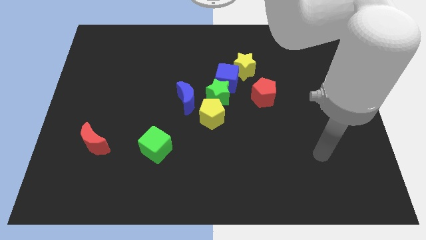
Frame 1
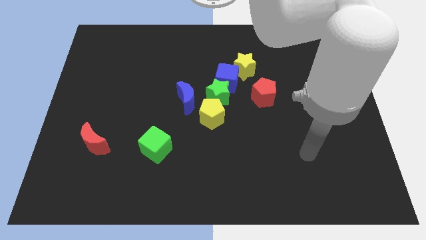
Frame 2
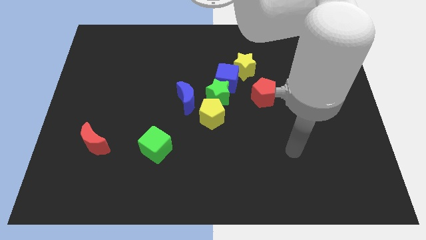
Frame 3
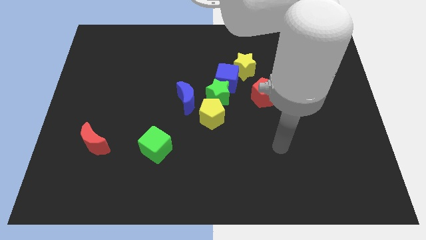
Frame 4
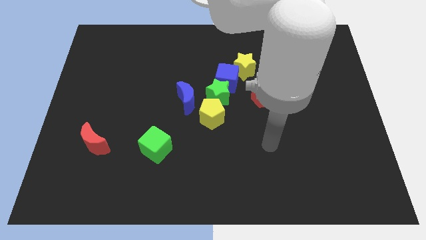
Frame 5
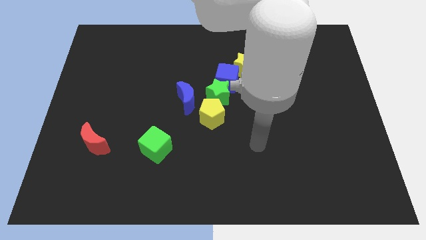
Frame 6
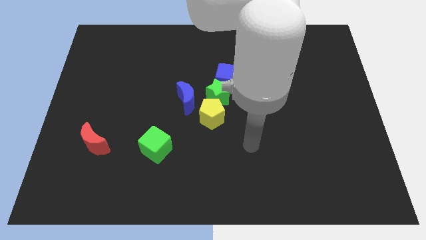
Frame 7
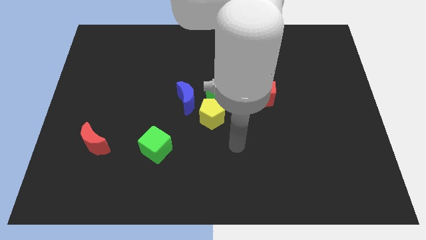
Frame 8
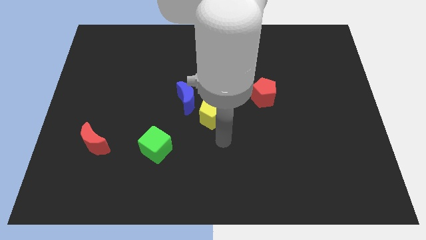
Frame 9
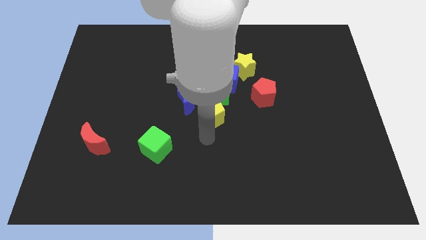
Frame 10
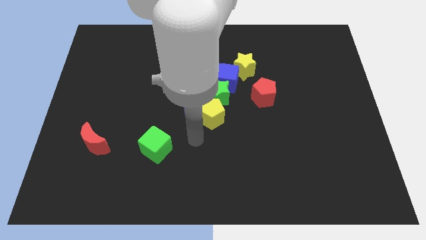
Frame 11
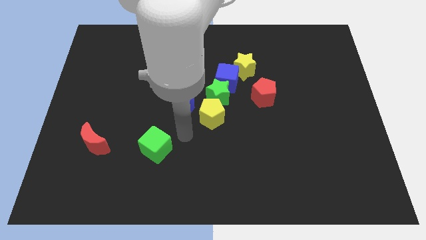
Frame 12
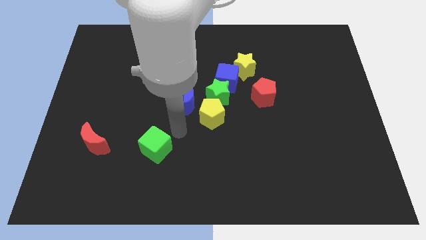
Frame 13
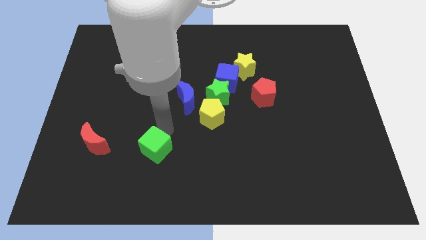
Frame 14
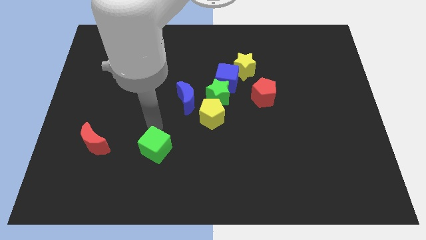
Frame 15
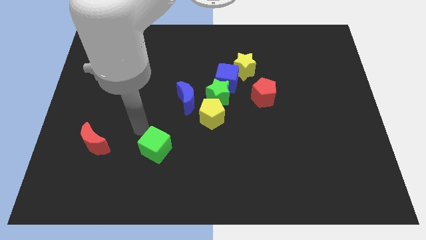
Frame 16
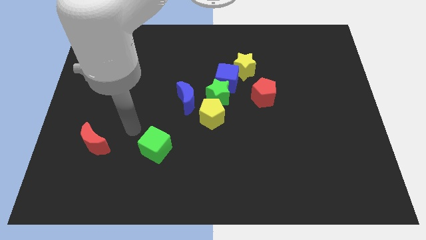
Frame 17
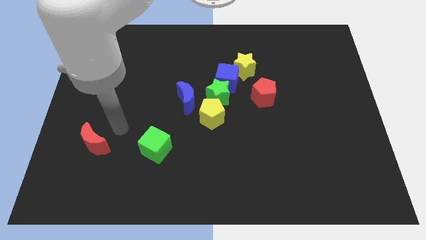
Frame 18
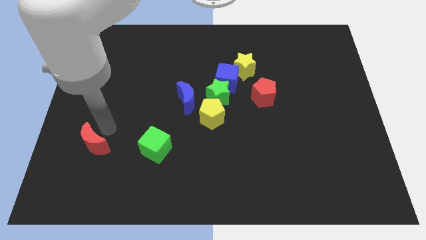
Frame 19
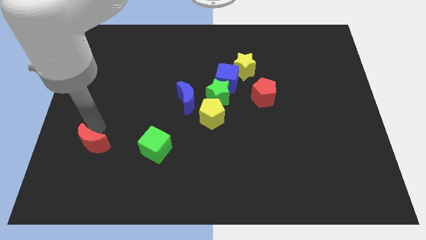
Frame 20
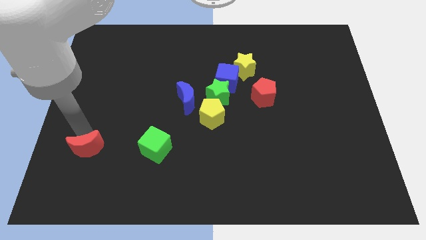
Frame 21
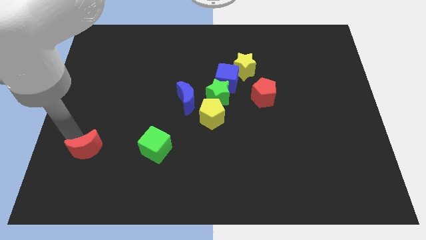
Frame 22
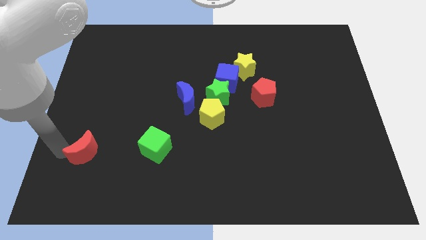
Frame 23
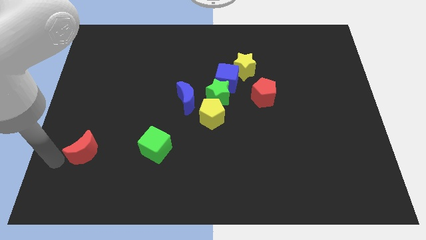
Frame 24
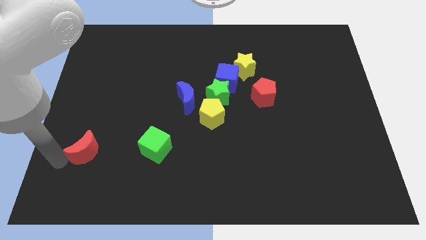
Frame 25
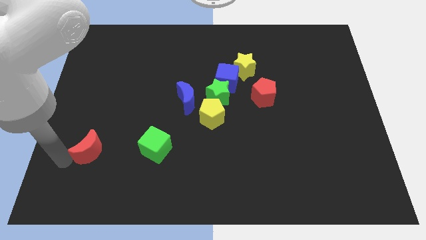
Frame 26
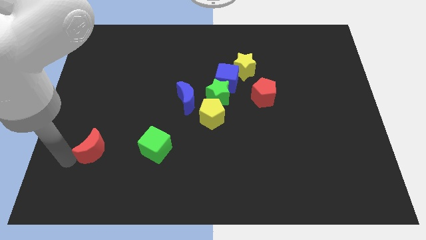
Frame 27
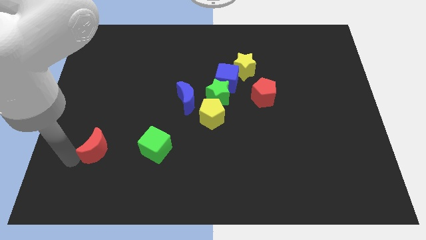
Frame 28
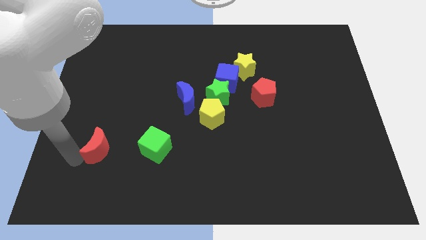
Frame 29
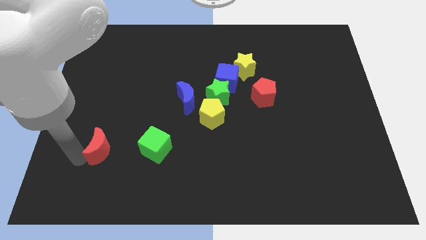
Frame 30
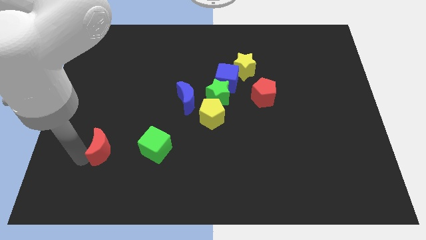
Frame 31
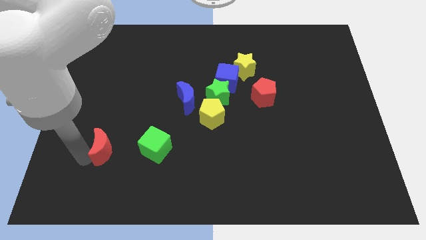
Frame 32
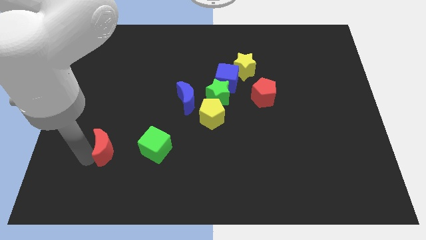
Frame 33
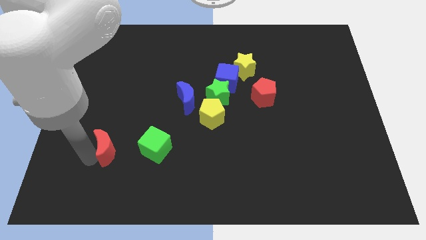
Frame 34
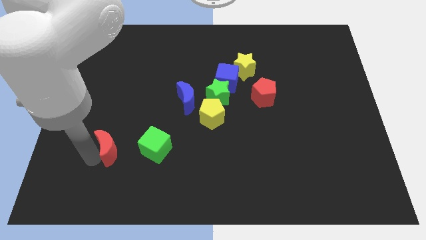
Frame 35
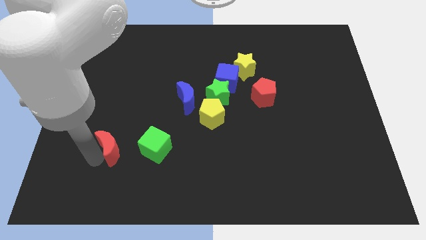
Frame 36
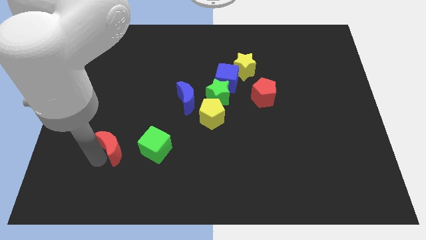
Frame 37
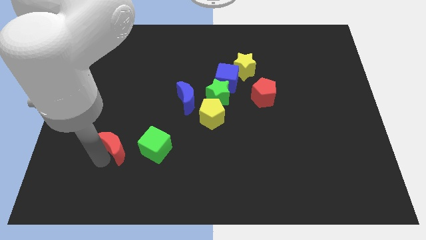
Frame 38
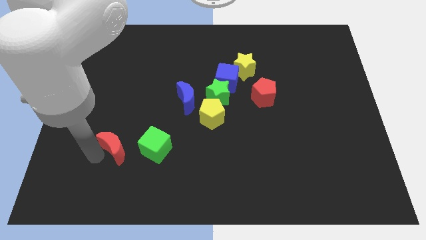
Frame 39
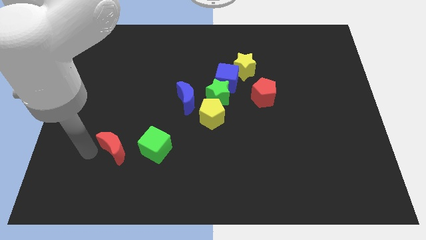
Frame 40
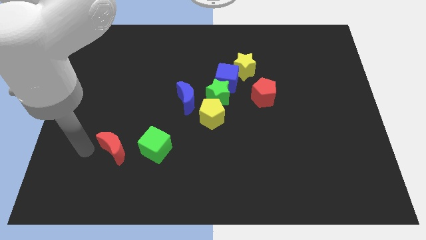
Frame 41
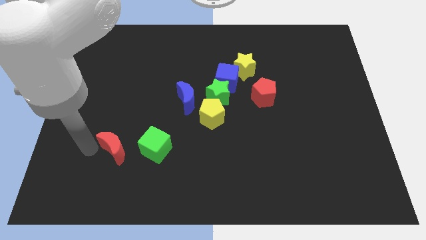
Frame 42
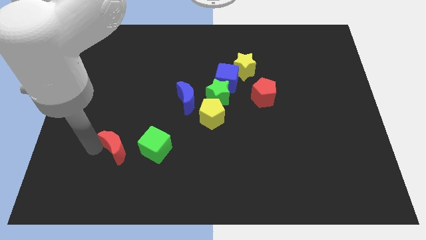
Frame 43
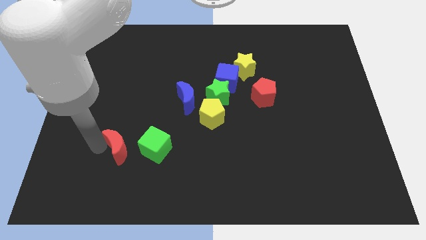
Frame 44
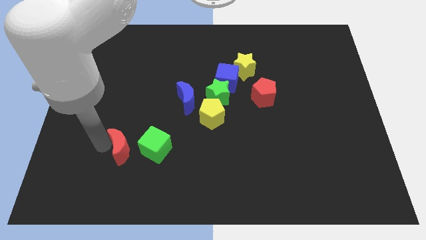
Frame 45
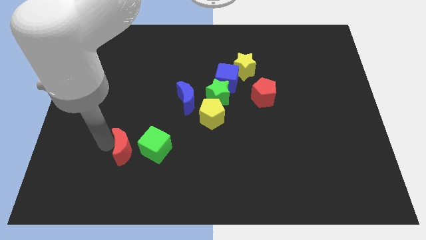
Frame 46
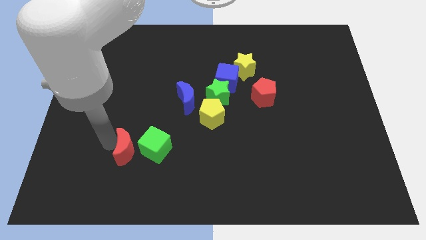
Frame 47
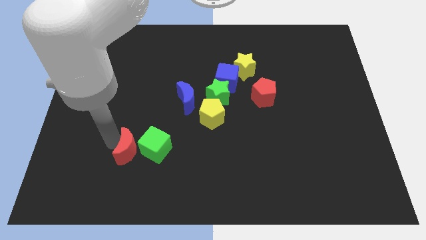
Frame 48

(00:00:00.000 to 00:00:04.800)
slide the red moon towards the green cube

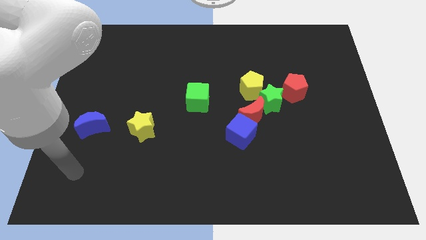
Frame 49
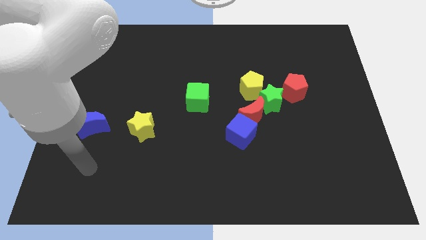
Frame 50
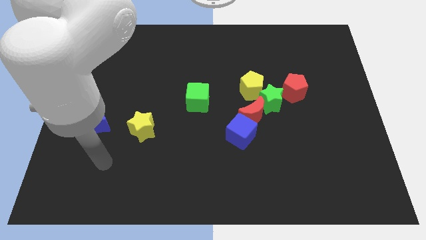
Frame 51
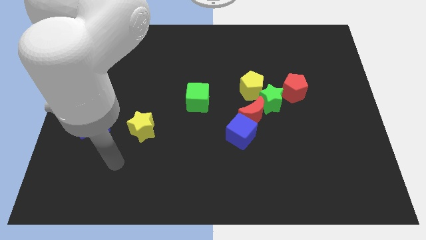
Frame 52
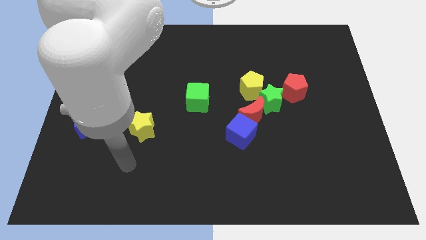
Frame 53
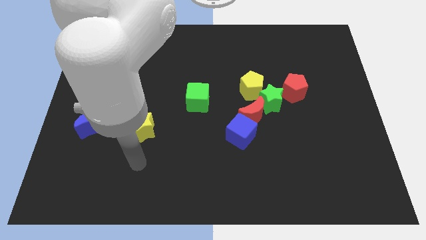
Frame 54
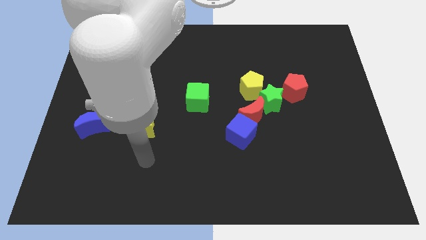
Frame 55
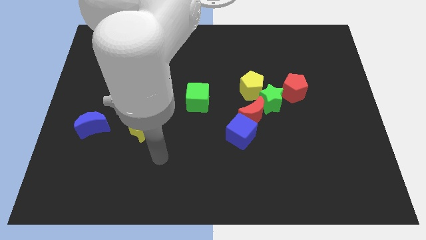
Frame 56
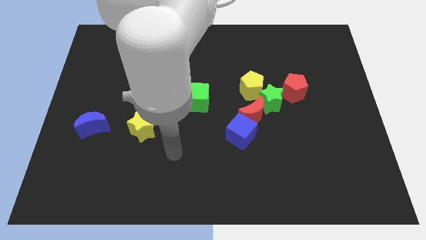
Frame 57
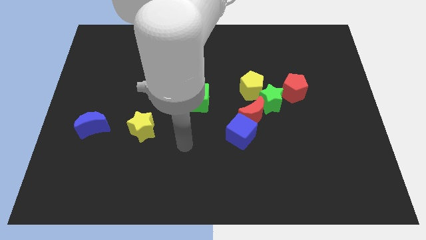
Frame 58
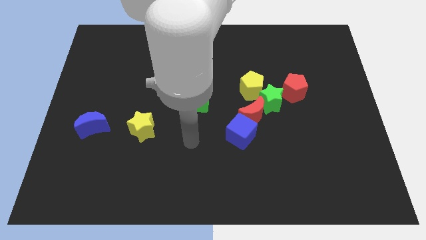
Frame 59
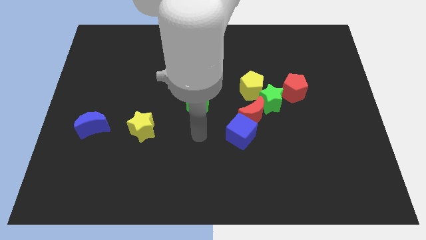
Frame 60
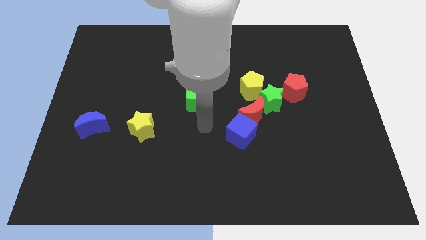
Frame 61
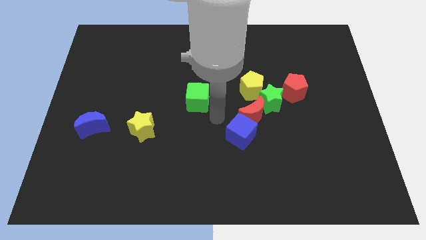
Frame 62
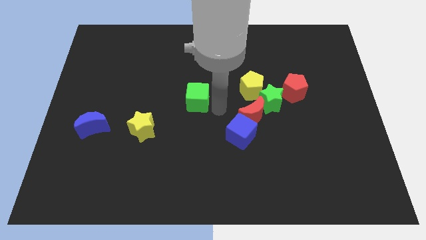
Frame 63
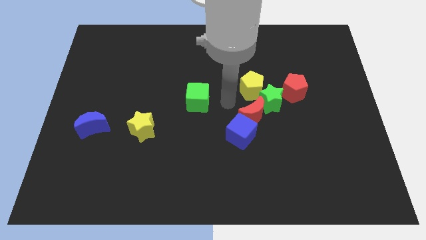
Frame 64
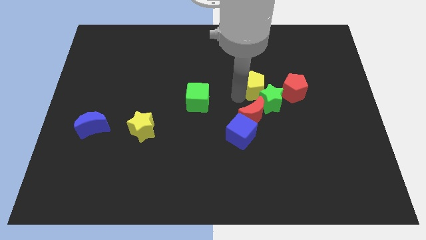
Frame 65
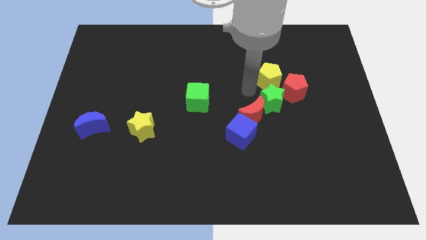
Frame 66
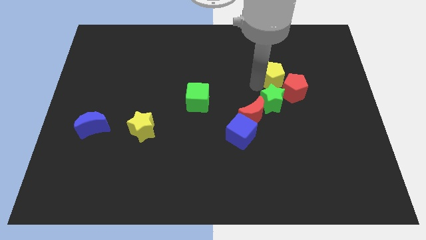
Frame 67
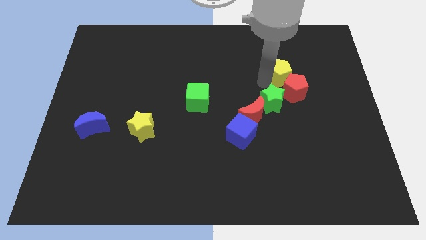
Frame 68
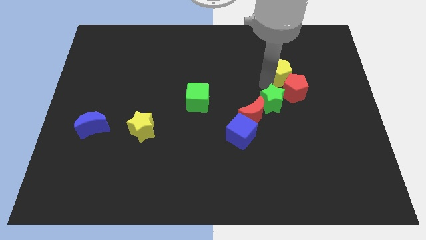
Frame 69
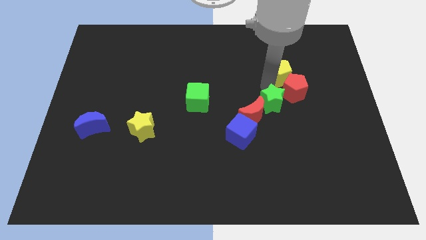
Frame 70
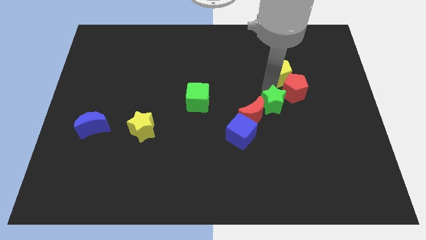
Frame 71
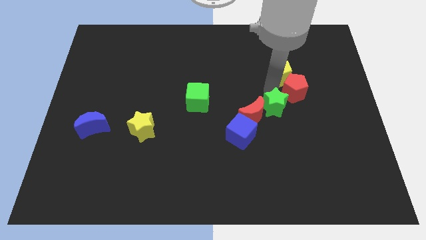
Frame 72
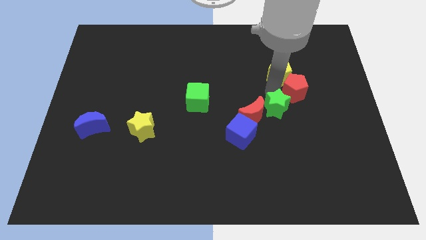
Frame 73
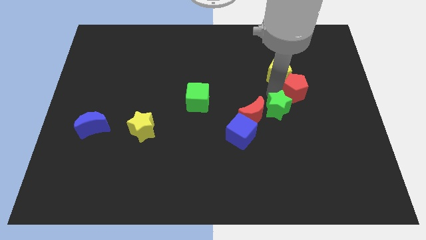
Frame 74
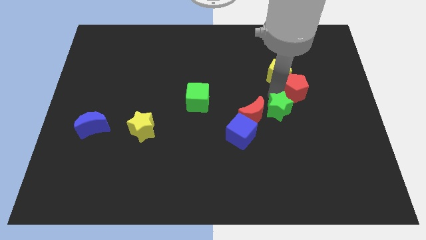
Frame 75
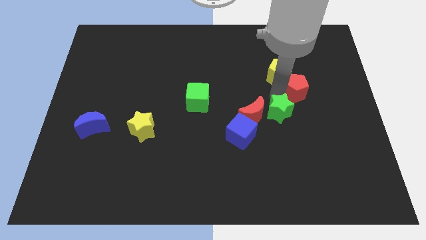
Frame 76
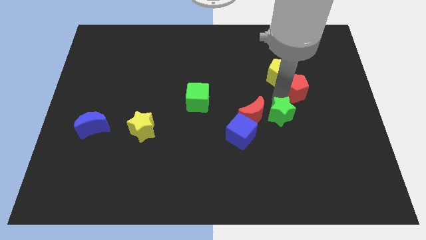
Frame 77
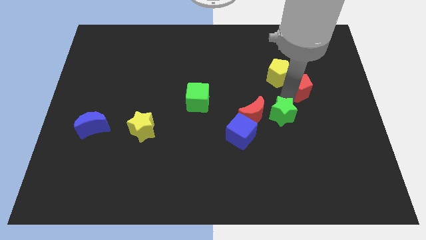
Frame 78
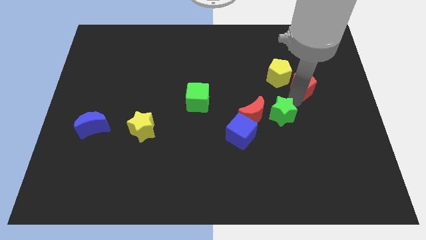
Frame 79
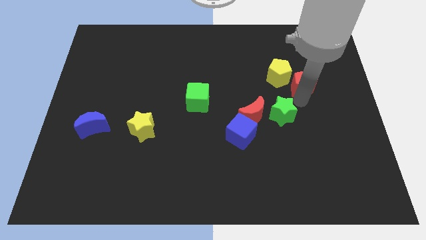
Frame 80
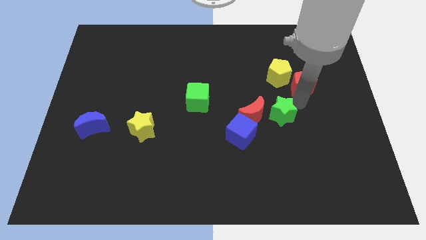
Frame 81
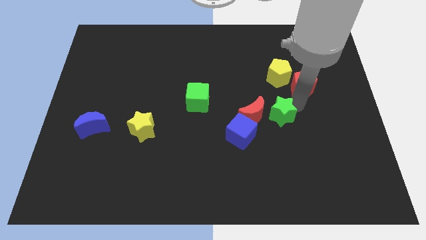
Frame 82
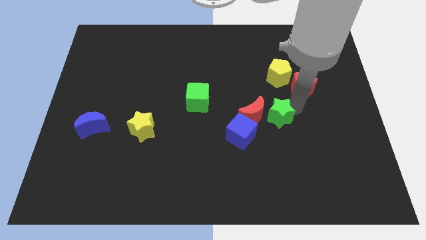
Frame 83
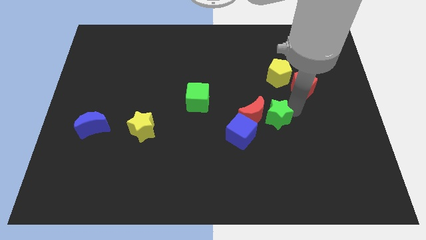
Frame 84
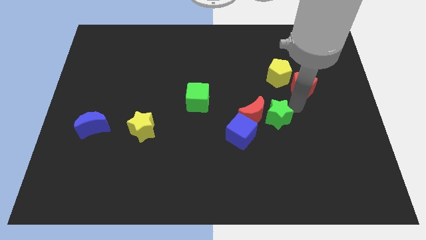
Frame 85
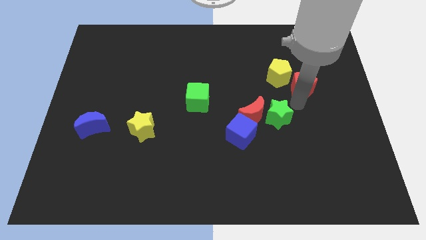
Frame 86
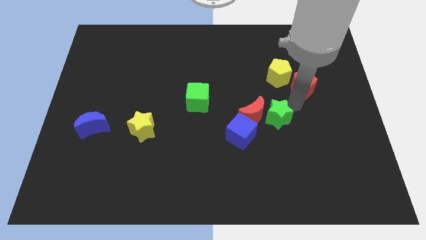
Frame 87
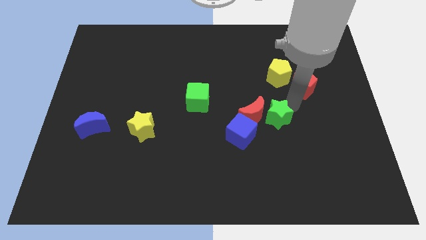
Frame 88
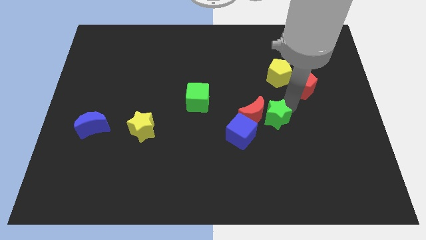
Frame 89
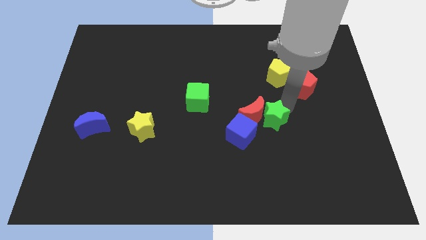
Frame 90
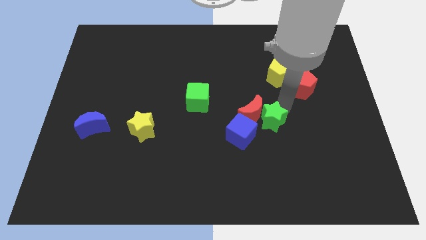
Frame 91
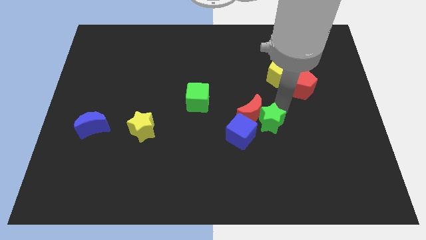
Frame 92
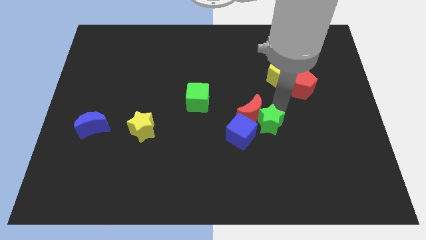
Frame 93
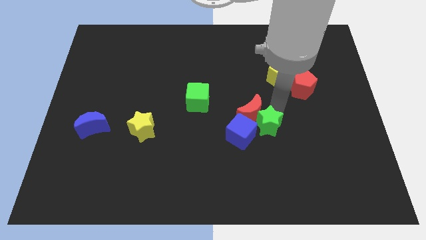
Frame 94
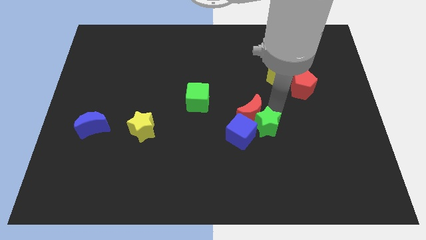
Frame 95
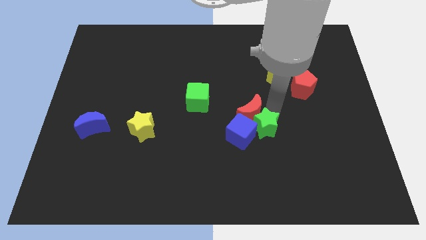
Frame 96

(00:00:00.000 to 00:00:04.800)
move the green star close to the blue cube
